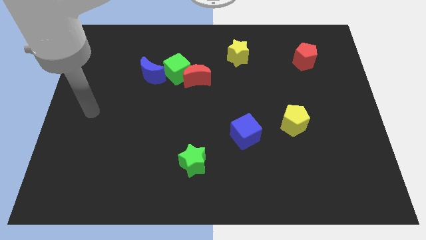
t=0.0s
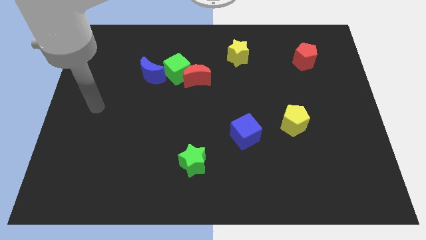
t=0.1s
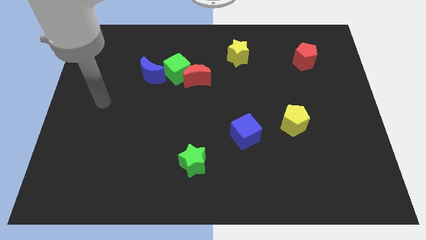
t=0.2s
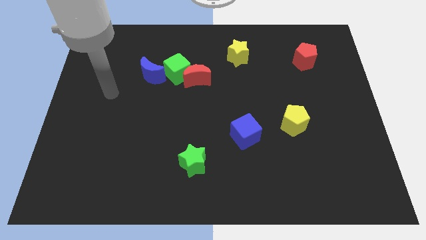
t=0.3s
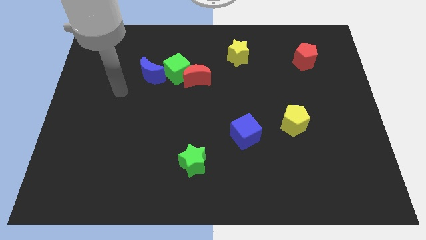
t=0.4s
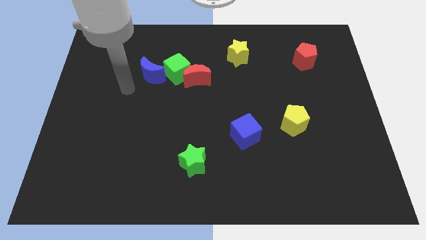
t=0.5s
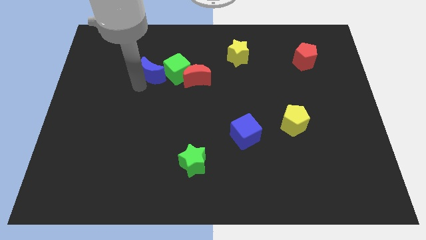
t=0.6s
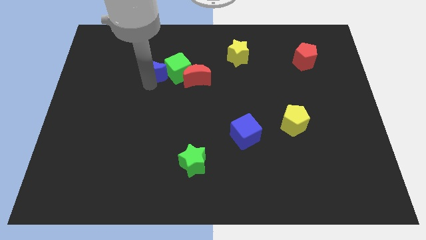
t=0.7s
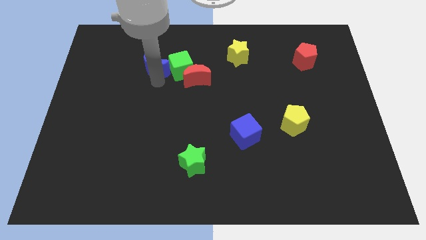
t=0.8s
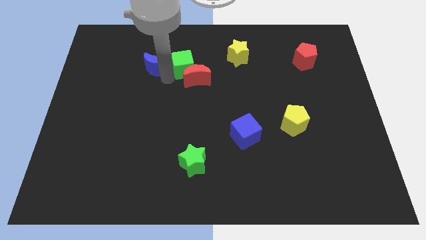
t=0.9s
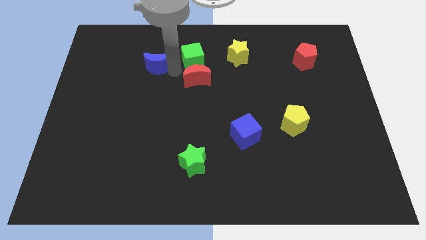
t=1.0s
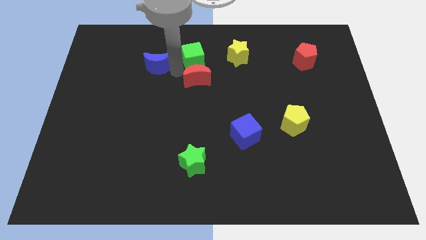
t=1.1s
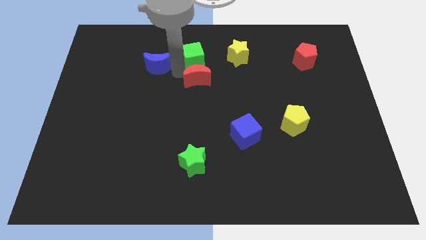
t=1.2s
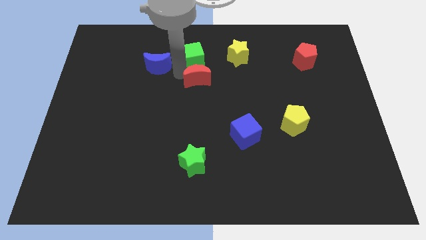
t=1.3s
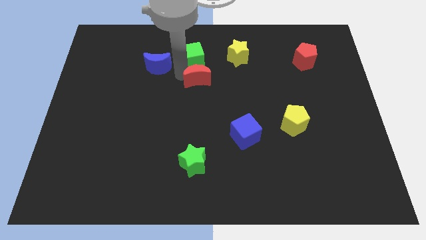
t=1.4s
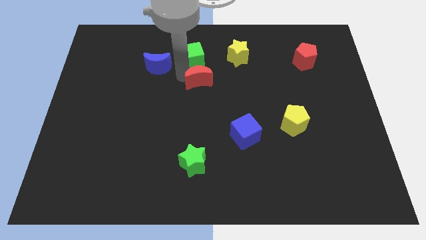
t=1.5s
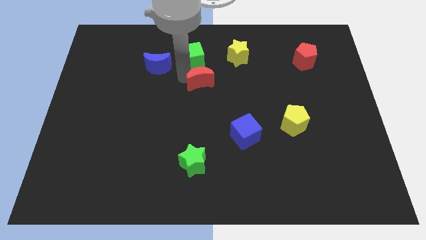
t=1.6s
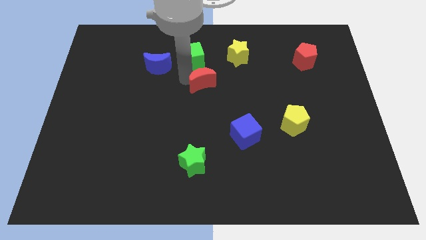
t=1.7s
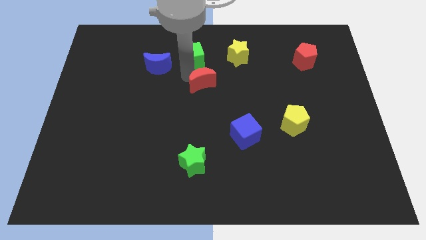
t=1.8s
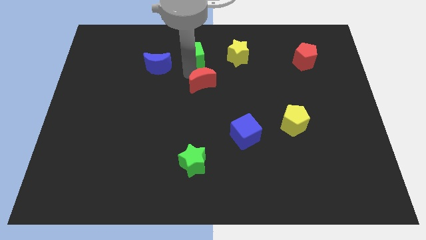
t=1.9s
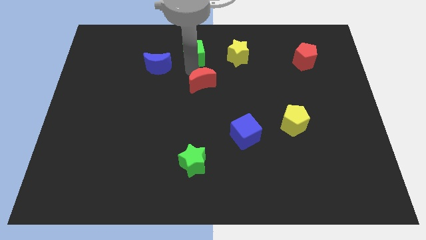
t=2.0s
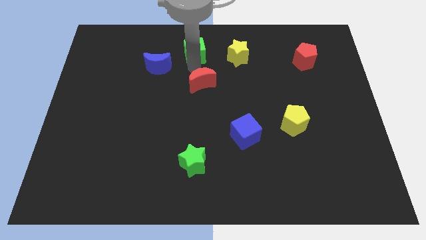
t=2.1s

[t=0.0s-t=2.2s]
pull the red moon apart from the green cube

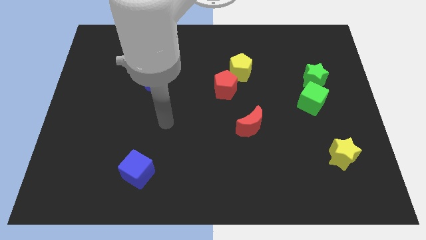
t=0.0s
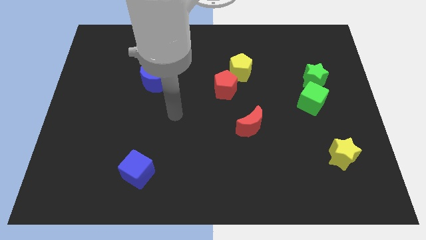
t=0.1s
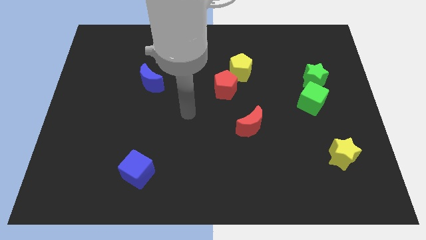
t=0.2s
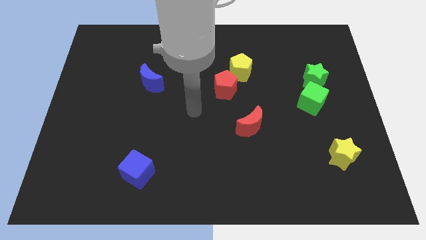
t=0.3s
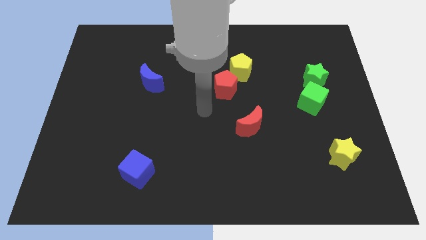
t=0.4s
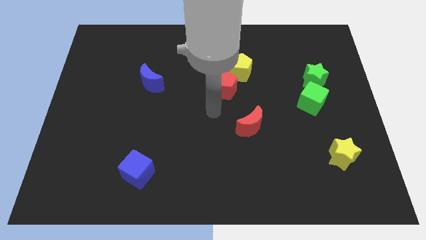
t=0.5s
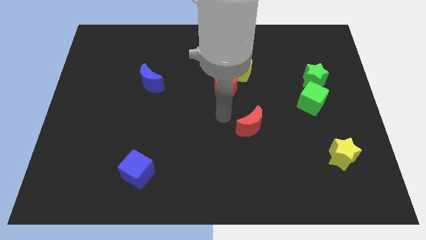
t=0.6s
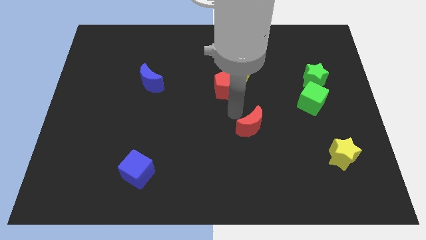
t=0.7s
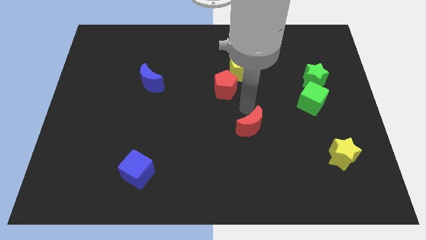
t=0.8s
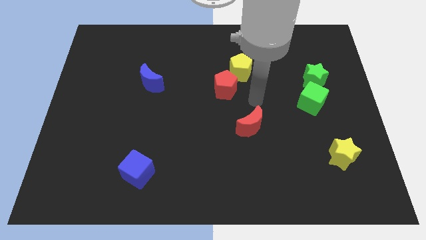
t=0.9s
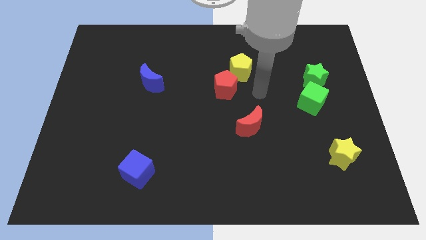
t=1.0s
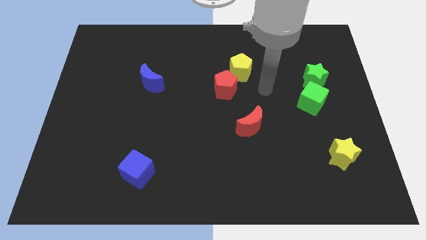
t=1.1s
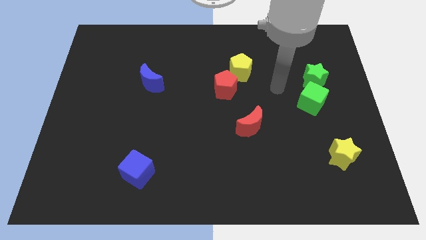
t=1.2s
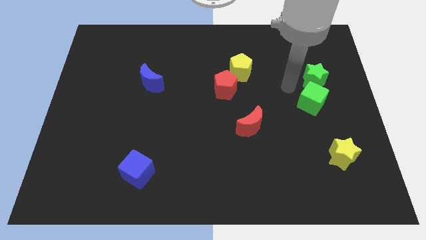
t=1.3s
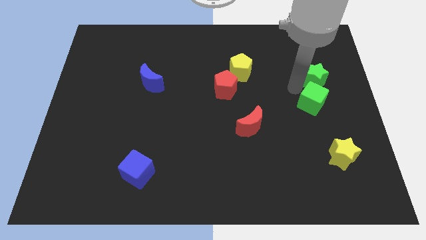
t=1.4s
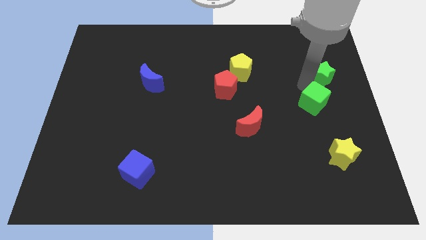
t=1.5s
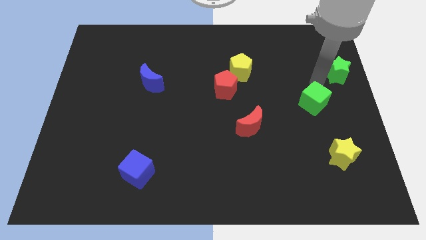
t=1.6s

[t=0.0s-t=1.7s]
pull the green cube apart from the green star

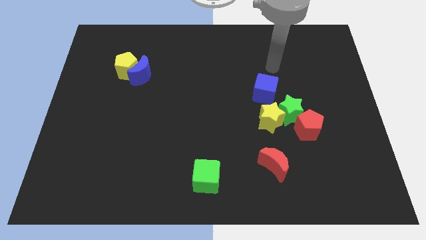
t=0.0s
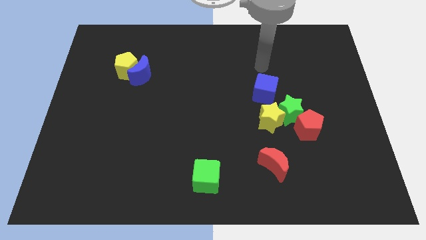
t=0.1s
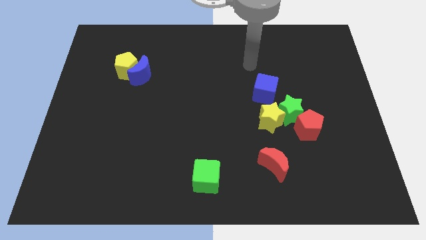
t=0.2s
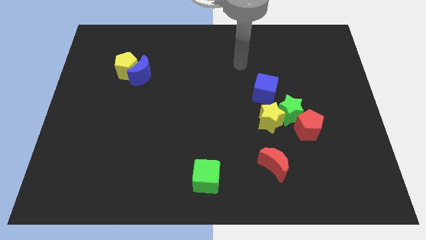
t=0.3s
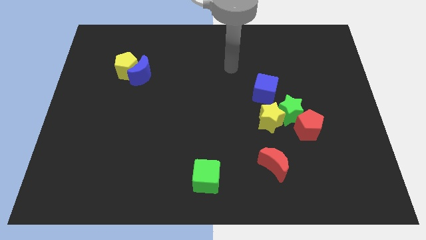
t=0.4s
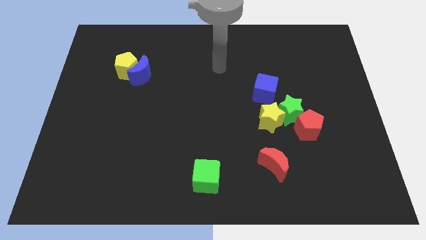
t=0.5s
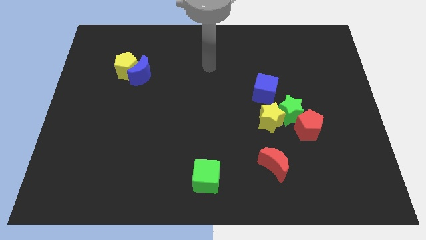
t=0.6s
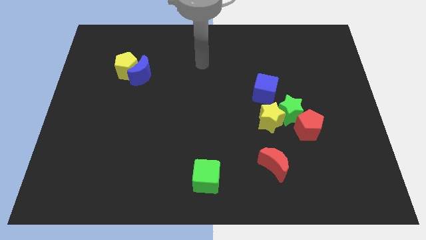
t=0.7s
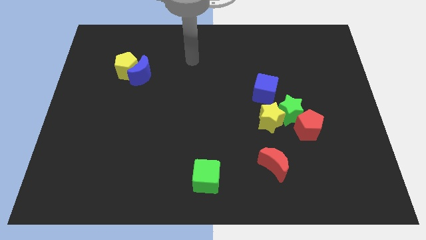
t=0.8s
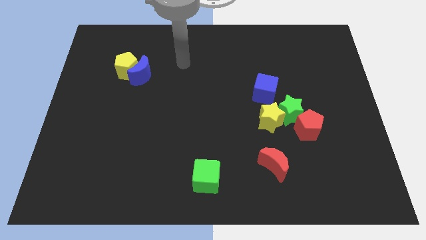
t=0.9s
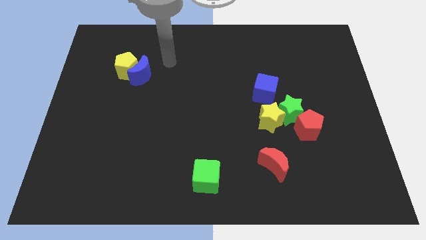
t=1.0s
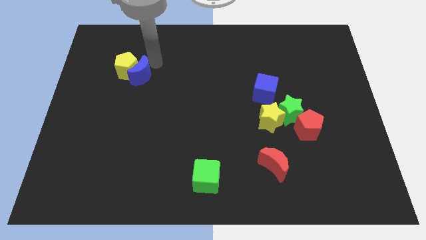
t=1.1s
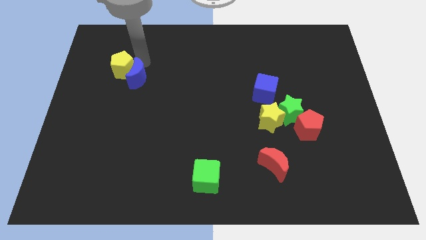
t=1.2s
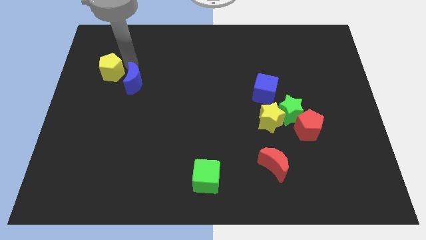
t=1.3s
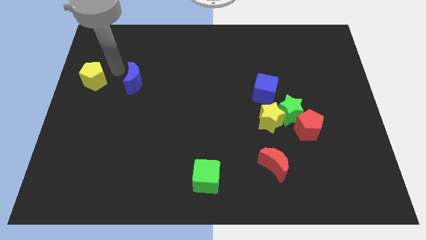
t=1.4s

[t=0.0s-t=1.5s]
pull the blue moon apart from the yellow pentagon

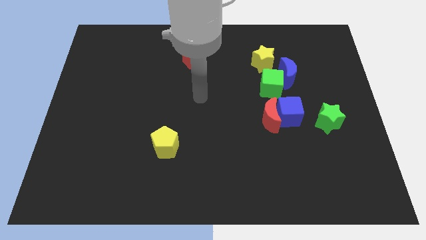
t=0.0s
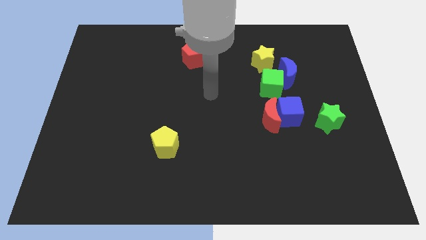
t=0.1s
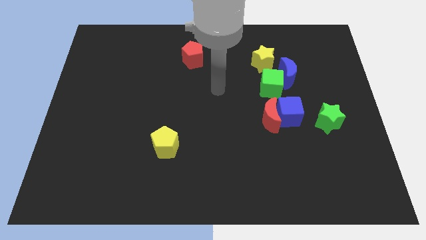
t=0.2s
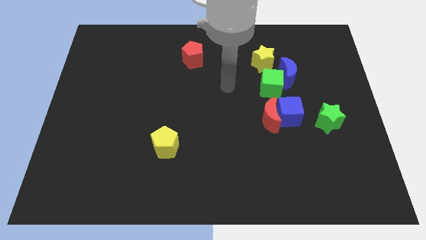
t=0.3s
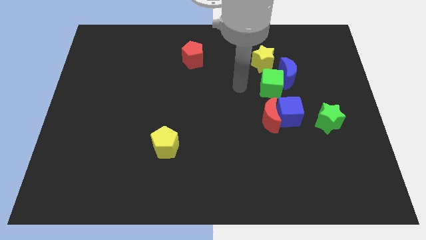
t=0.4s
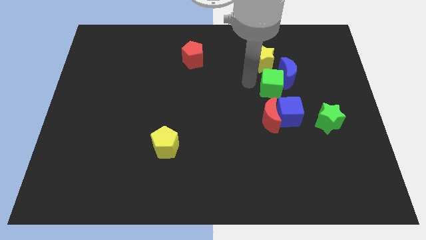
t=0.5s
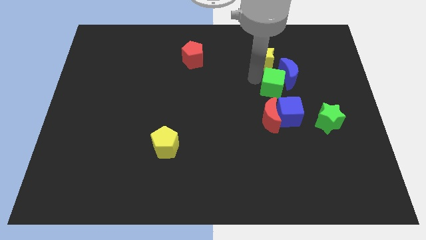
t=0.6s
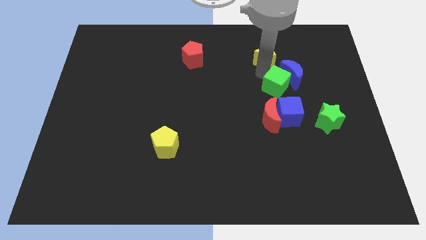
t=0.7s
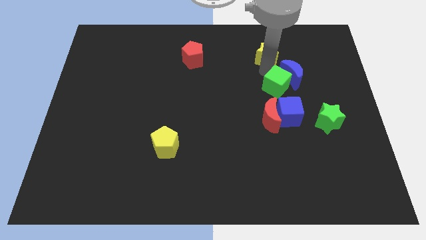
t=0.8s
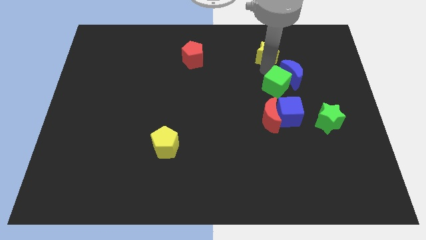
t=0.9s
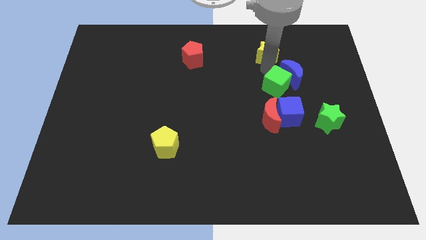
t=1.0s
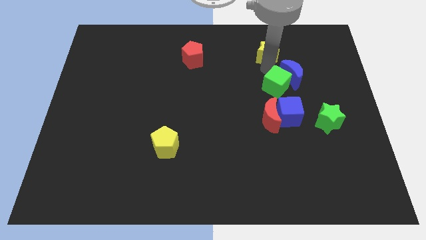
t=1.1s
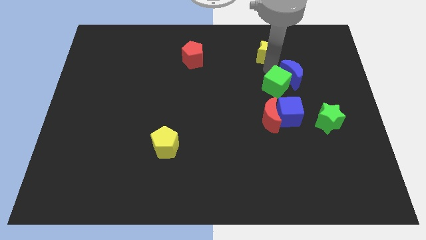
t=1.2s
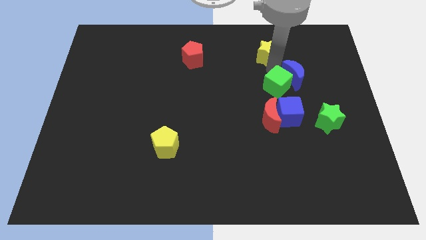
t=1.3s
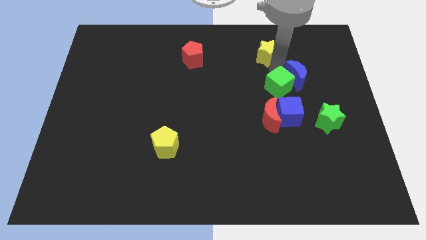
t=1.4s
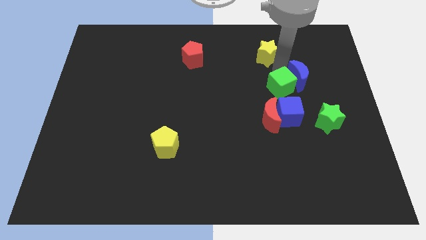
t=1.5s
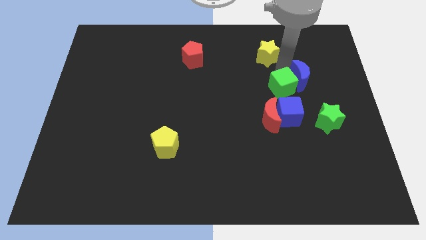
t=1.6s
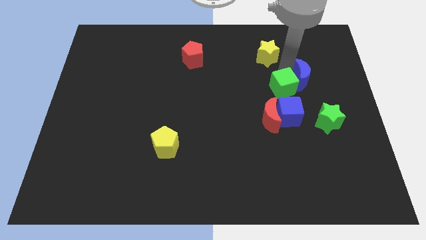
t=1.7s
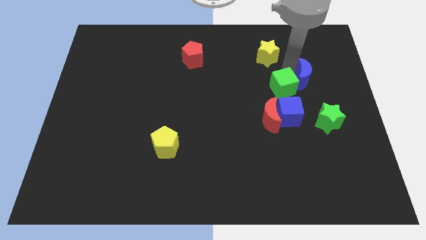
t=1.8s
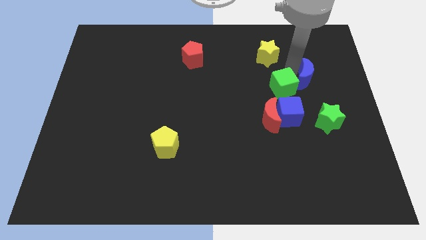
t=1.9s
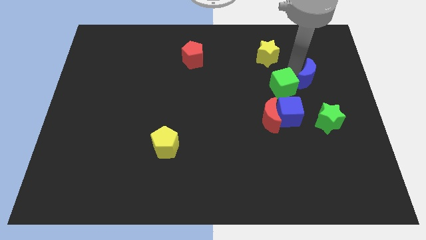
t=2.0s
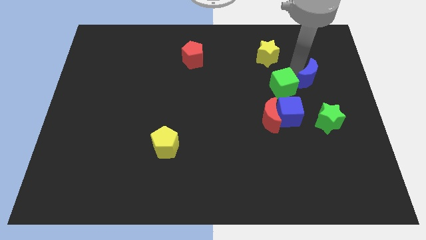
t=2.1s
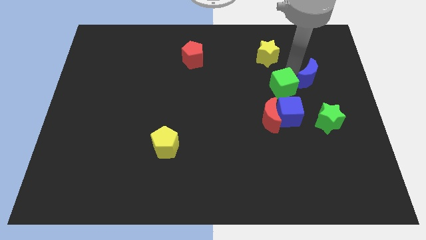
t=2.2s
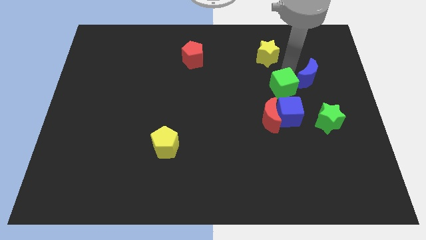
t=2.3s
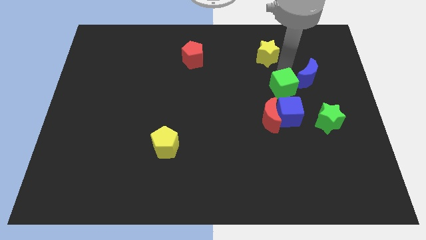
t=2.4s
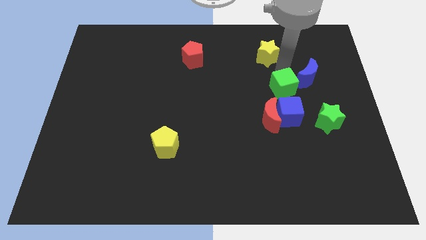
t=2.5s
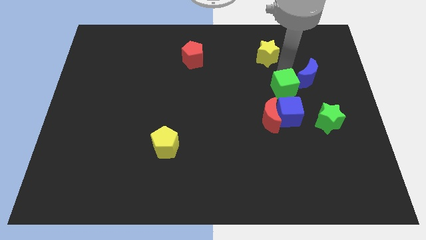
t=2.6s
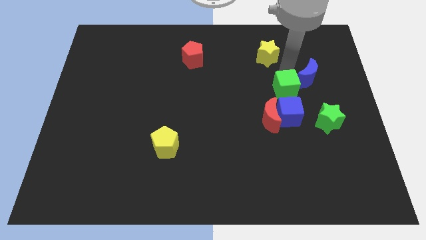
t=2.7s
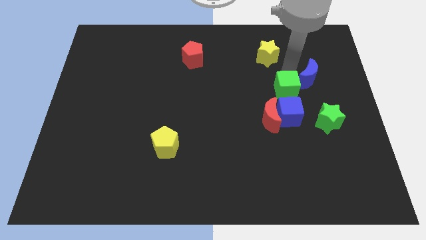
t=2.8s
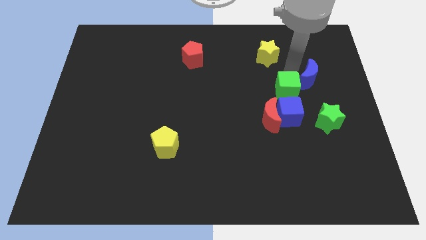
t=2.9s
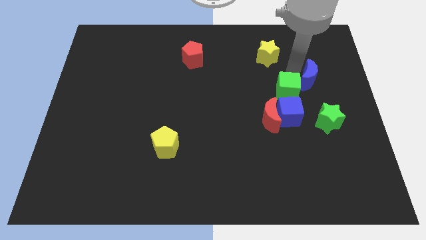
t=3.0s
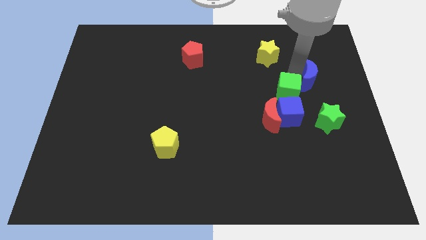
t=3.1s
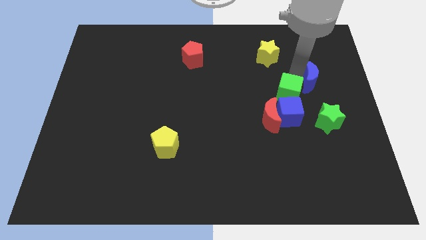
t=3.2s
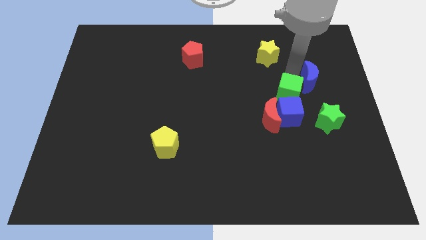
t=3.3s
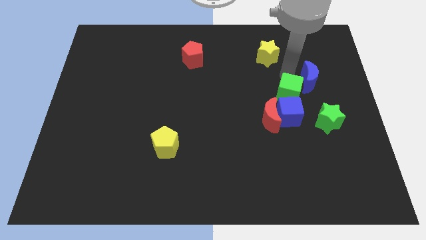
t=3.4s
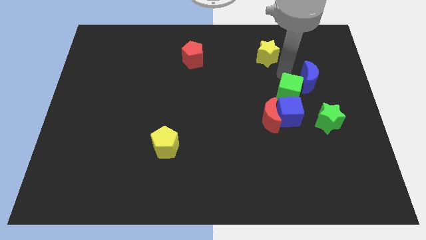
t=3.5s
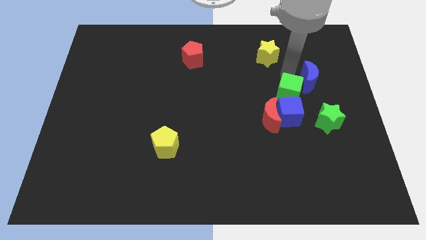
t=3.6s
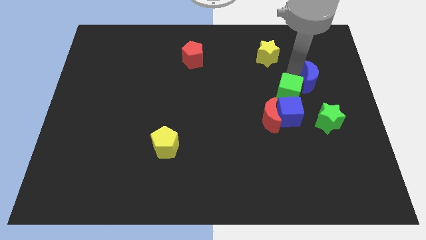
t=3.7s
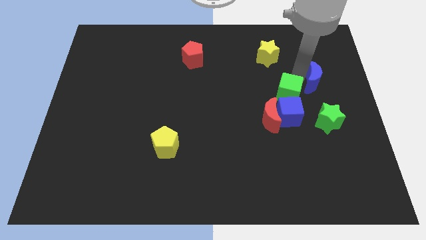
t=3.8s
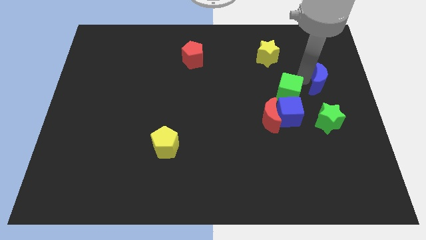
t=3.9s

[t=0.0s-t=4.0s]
separate the blue moon from the green cube and yellow star

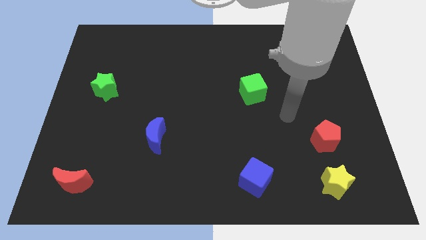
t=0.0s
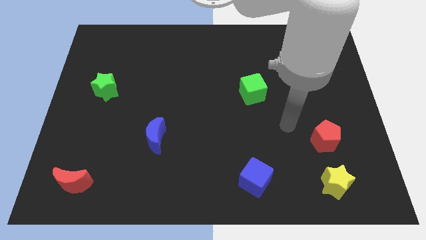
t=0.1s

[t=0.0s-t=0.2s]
pull the red pentagon apart from the yellow star
